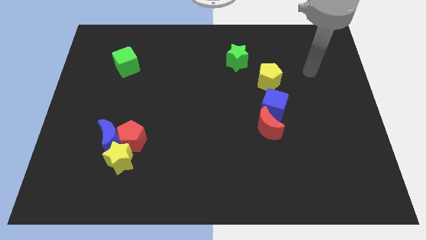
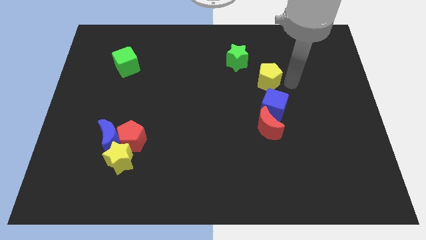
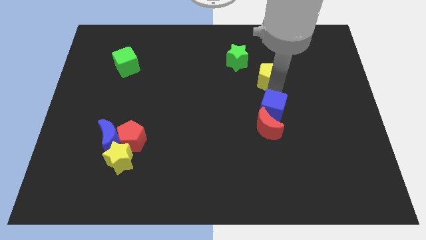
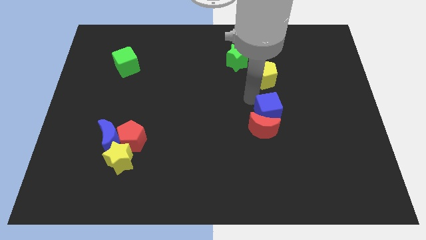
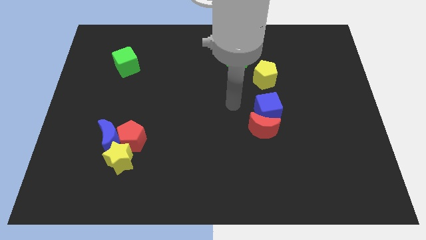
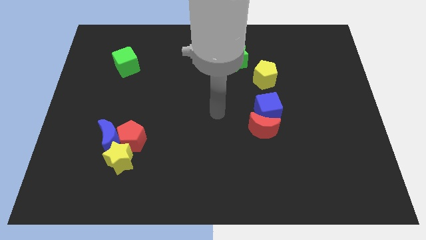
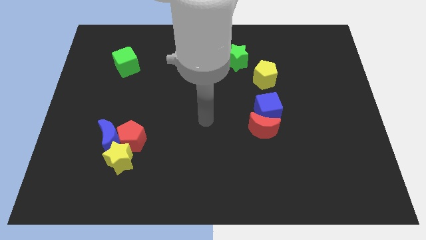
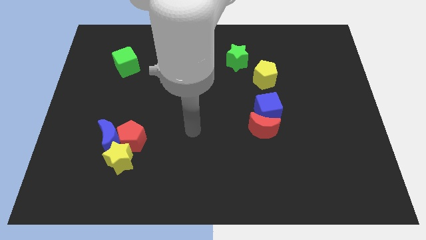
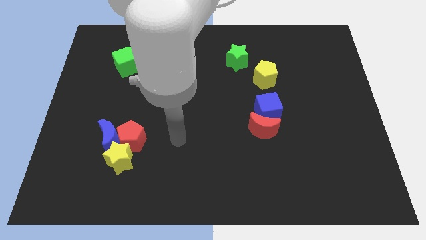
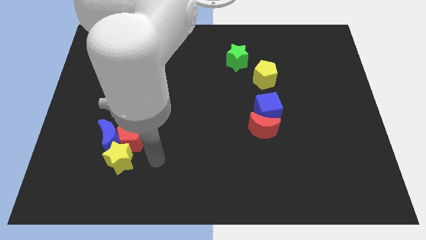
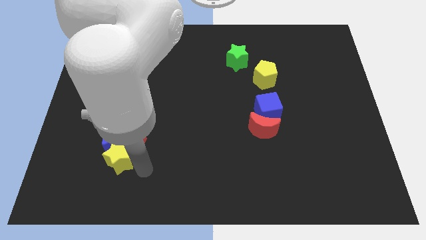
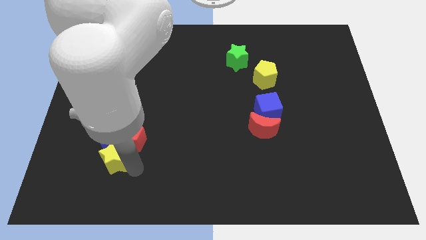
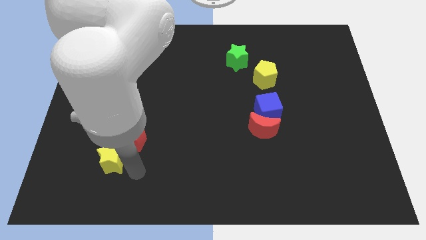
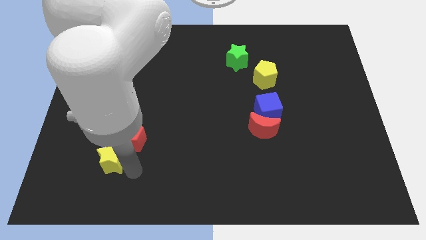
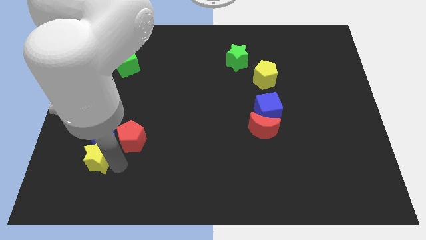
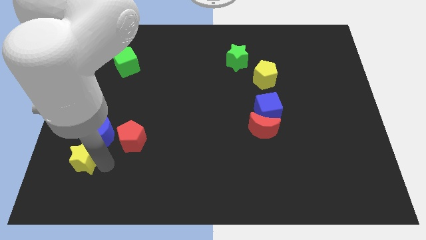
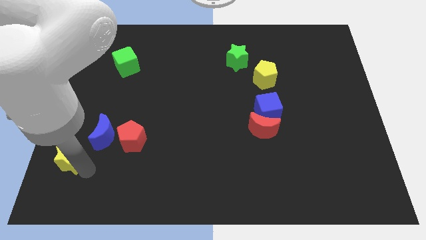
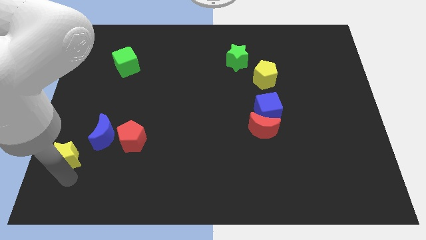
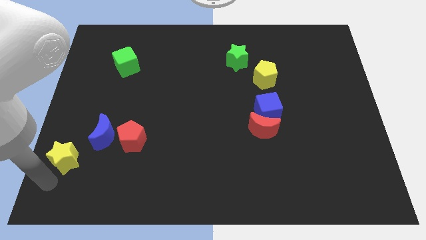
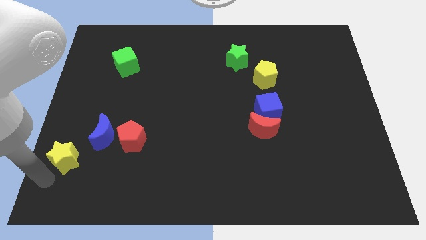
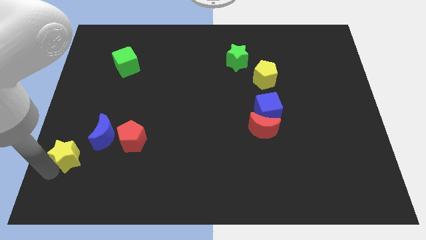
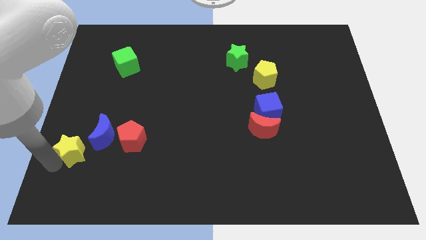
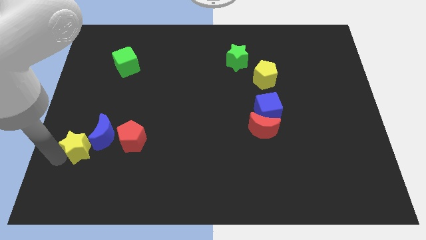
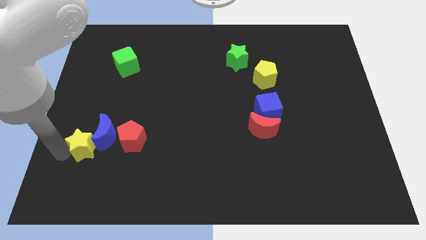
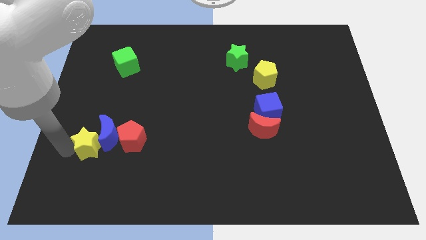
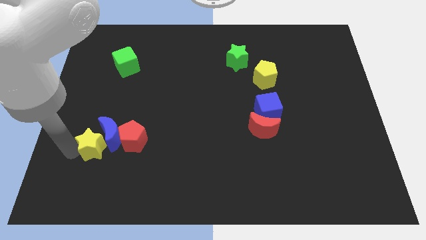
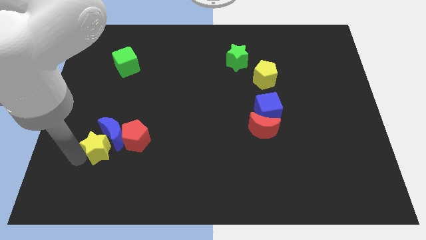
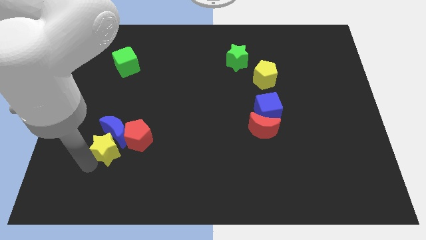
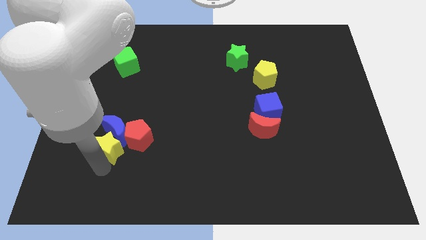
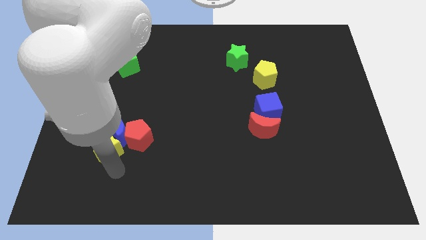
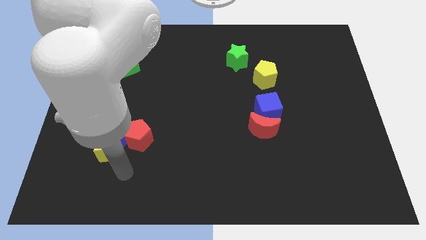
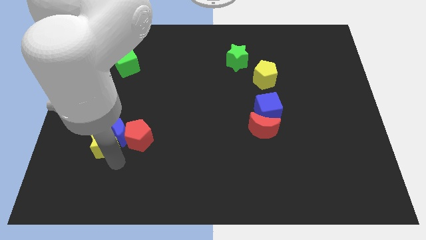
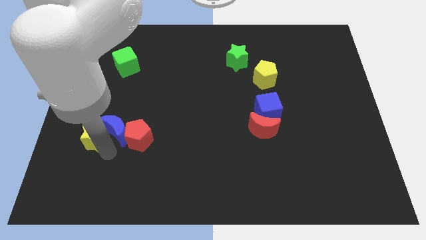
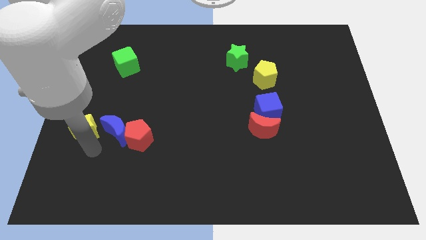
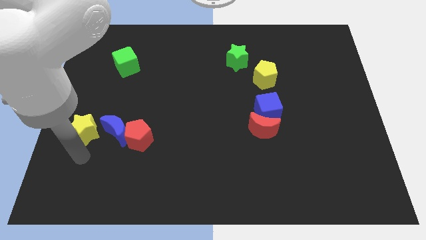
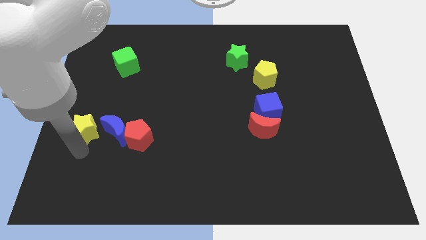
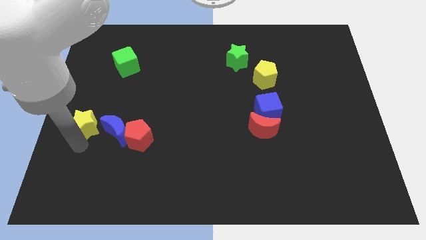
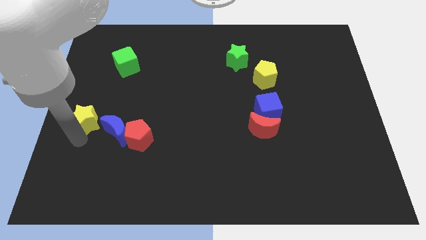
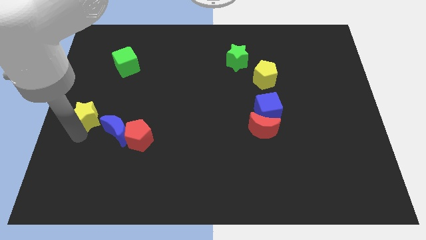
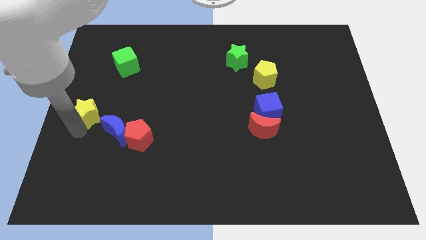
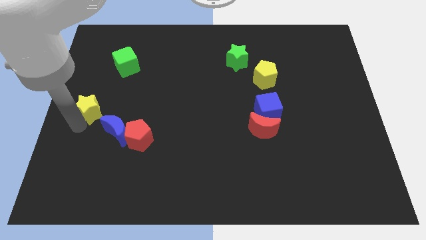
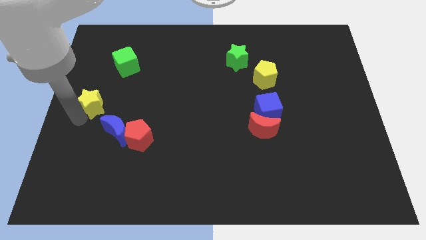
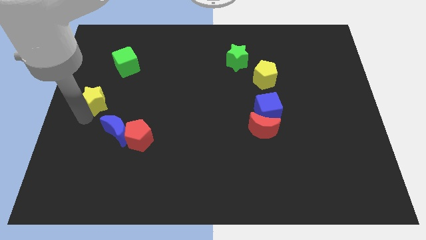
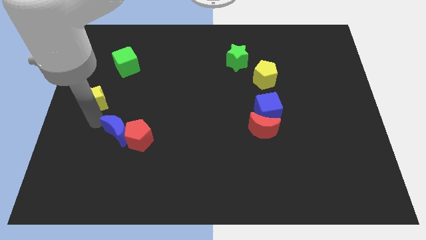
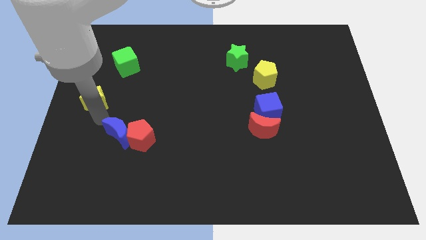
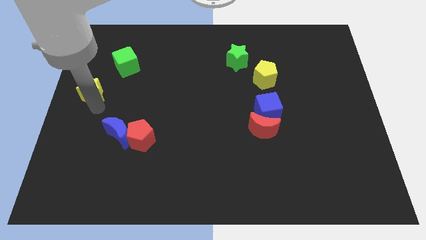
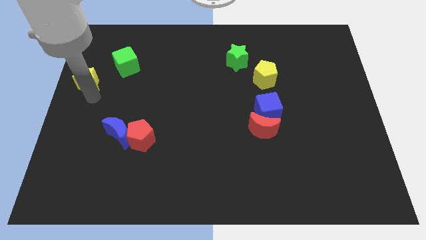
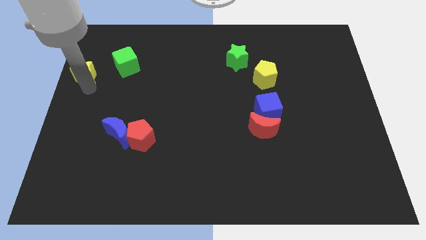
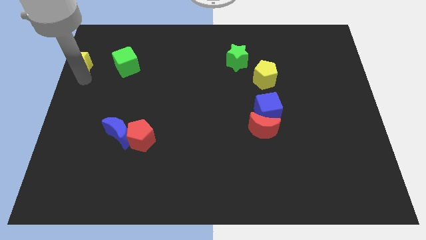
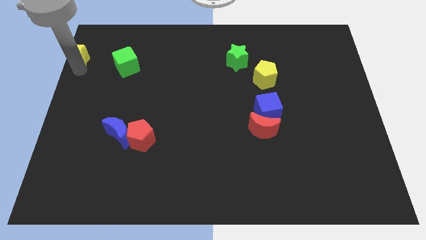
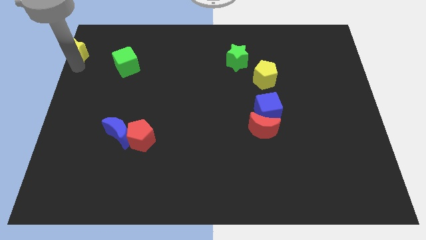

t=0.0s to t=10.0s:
slide the yellow star to the top left
